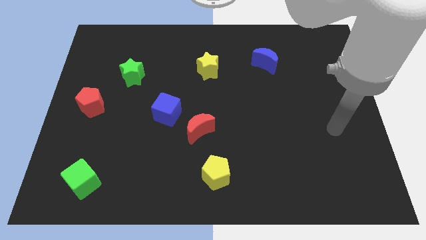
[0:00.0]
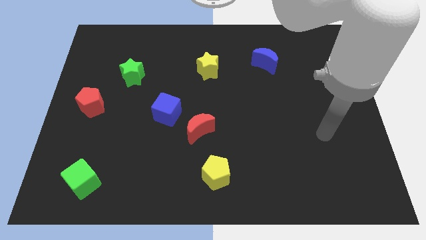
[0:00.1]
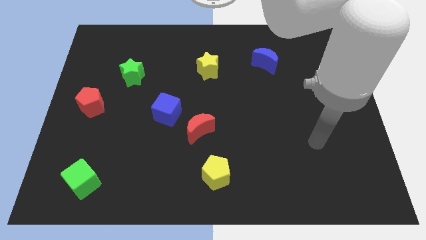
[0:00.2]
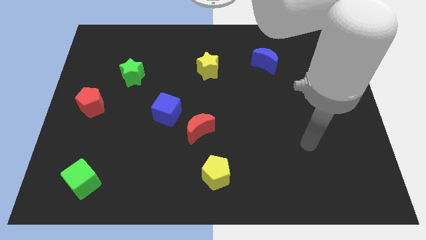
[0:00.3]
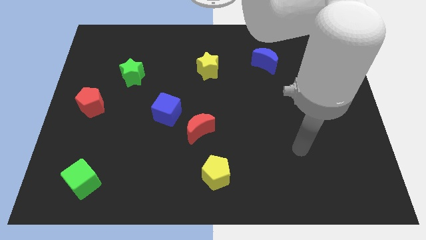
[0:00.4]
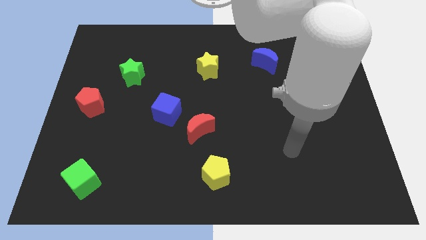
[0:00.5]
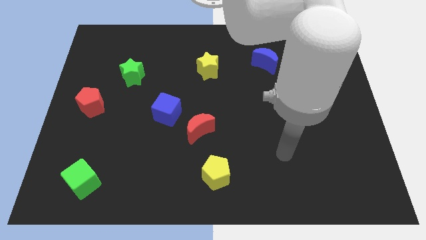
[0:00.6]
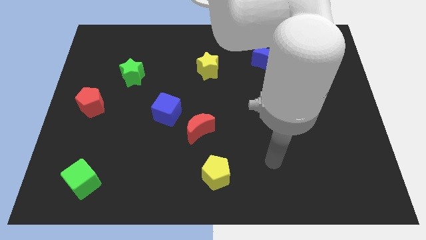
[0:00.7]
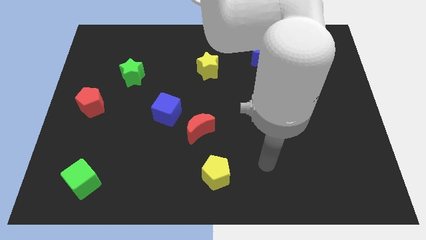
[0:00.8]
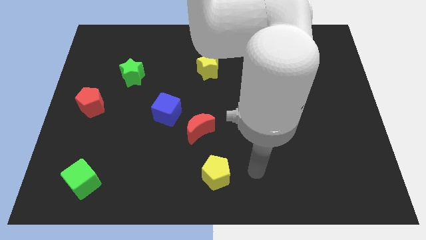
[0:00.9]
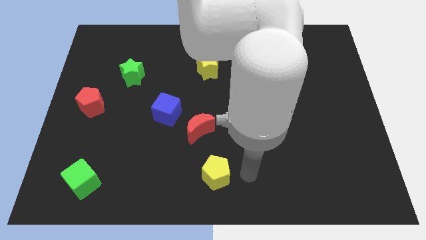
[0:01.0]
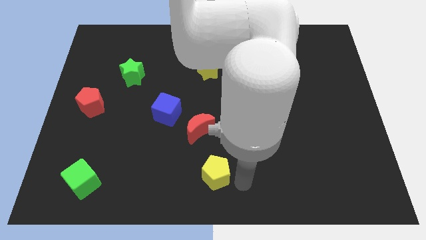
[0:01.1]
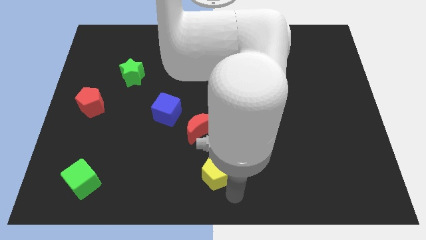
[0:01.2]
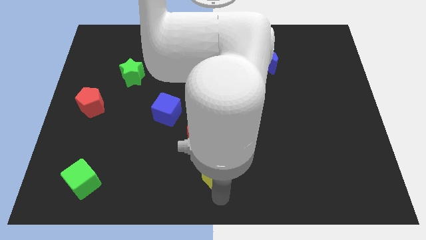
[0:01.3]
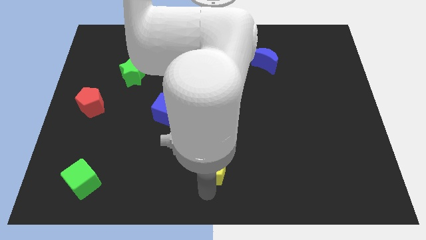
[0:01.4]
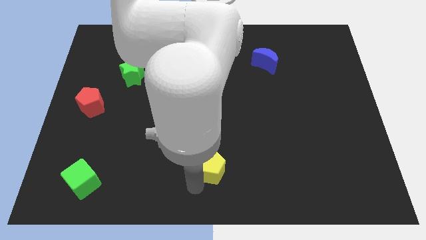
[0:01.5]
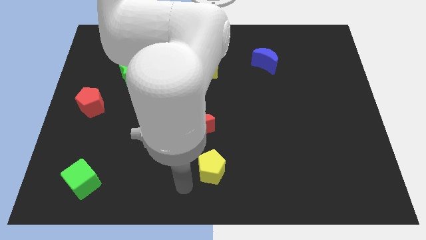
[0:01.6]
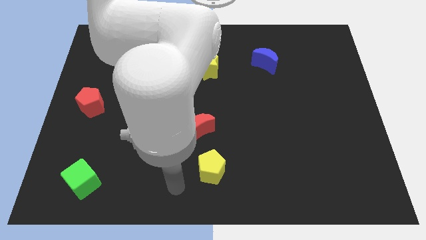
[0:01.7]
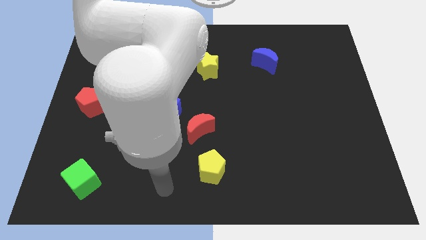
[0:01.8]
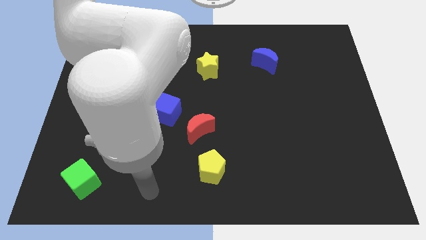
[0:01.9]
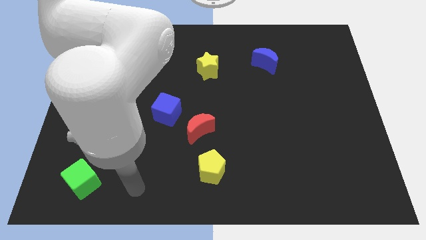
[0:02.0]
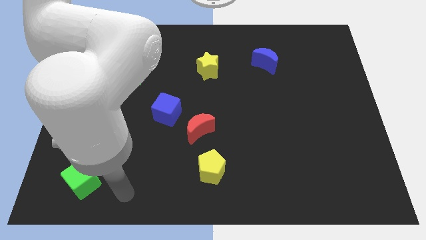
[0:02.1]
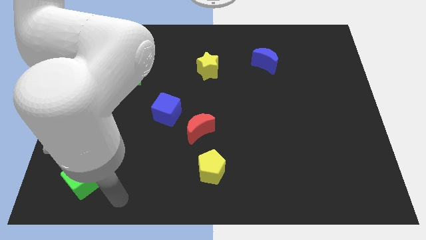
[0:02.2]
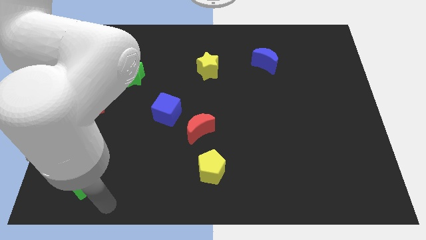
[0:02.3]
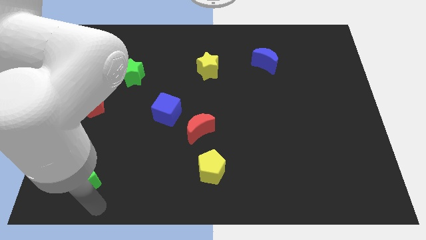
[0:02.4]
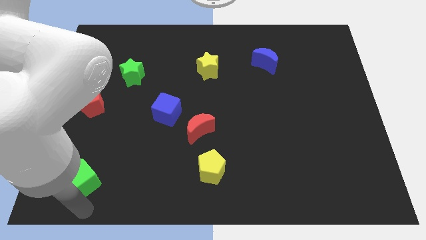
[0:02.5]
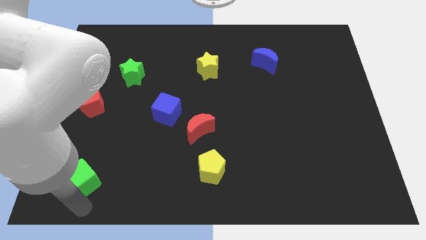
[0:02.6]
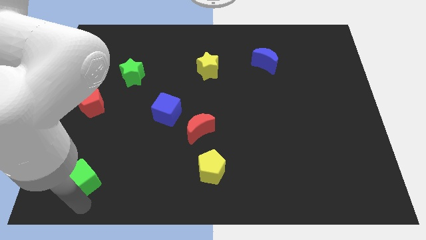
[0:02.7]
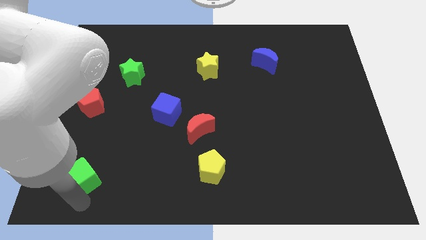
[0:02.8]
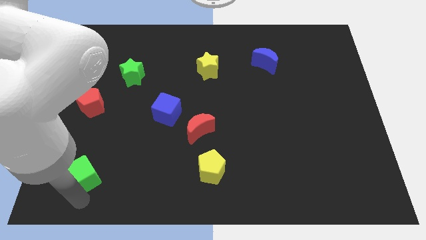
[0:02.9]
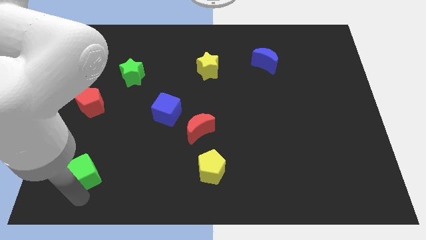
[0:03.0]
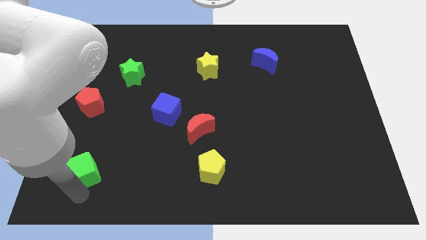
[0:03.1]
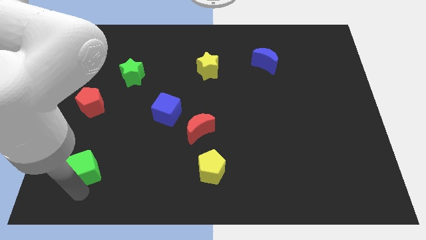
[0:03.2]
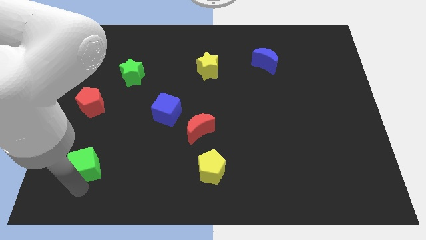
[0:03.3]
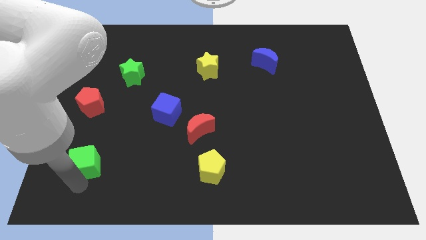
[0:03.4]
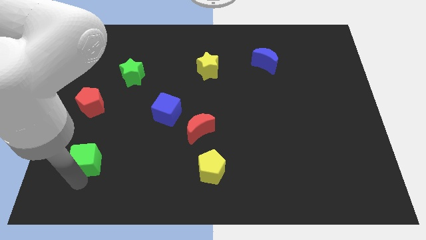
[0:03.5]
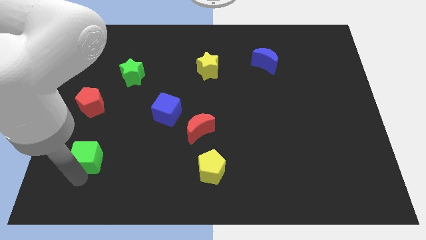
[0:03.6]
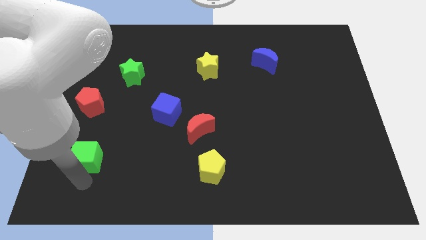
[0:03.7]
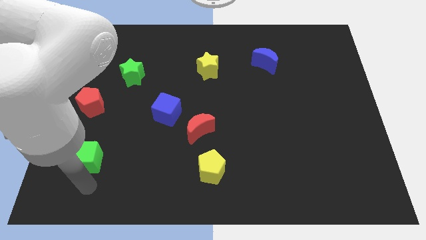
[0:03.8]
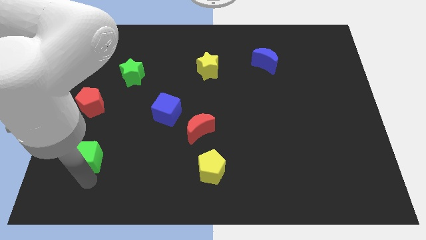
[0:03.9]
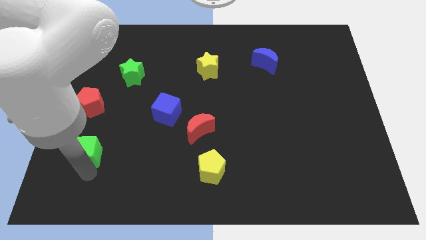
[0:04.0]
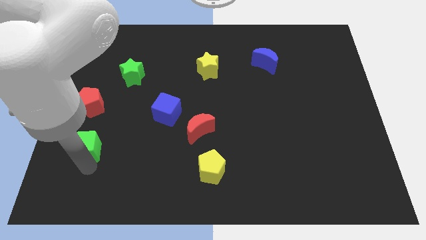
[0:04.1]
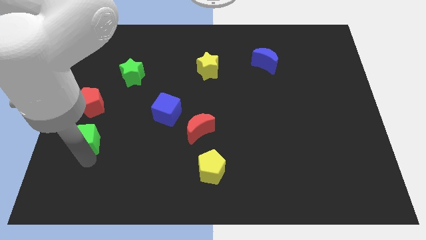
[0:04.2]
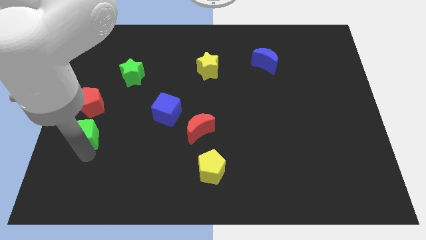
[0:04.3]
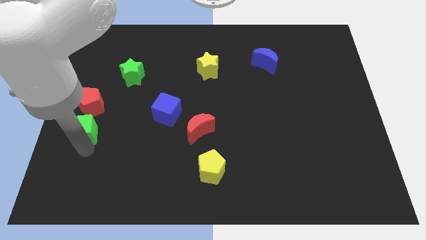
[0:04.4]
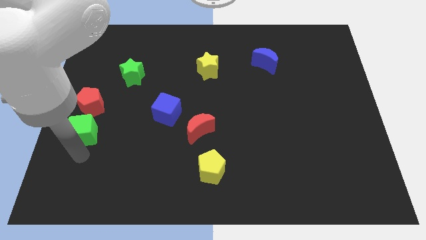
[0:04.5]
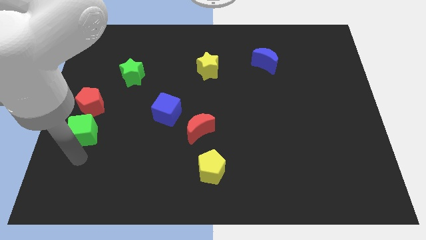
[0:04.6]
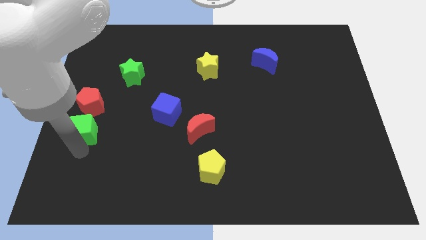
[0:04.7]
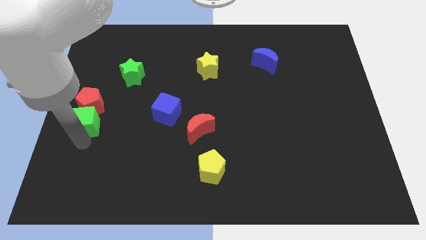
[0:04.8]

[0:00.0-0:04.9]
put the green cube next to the red pentagon

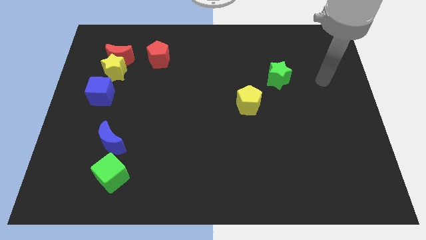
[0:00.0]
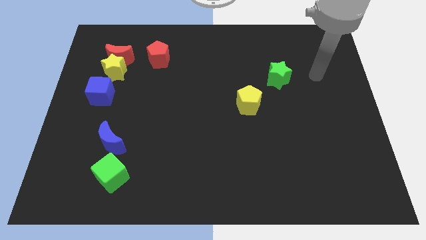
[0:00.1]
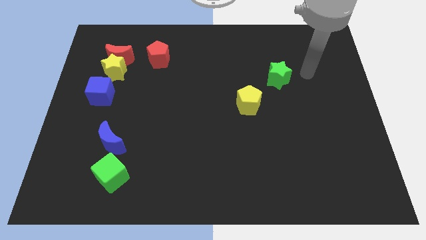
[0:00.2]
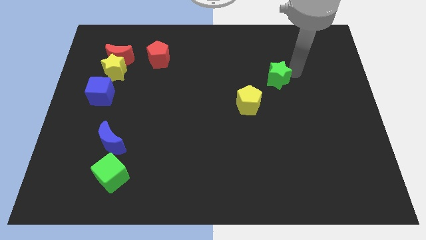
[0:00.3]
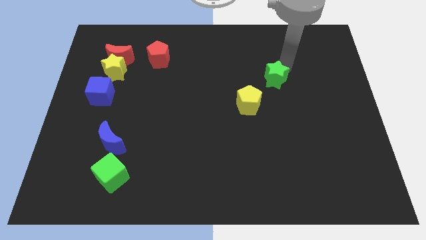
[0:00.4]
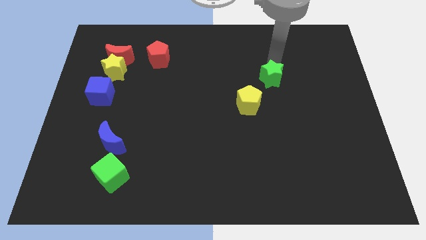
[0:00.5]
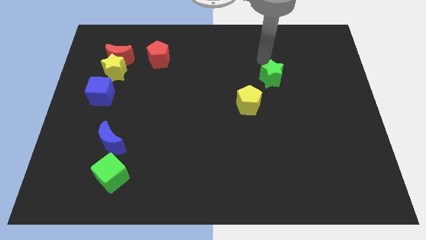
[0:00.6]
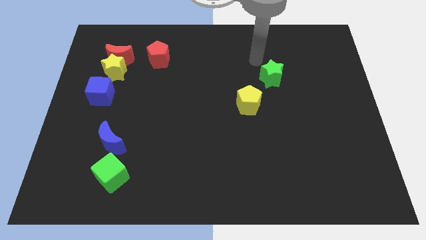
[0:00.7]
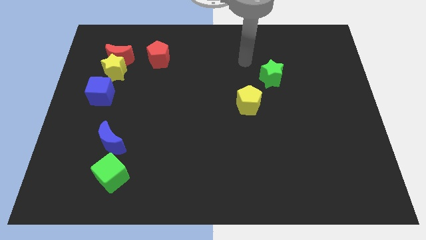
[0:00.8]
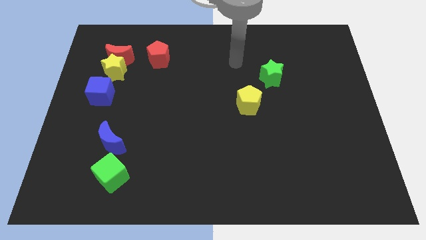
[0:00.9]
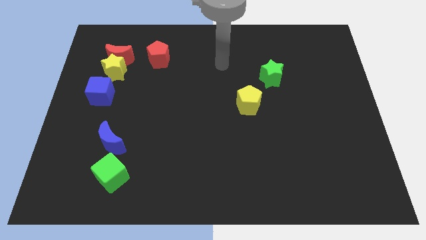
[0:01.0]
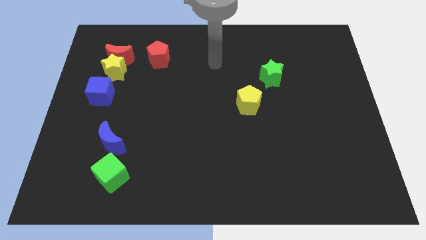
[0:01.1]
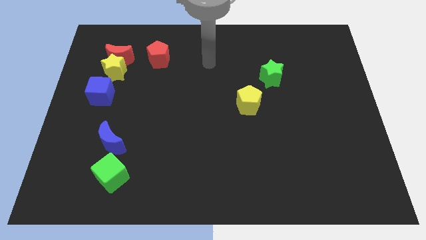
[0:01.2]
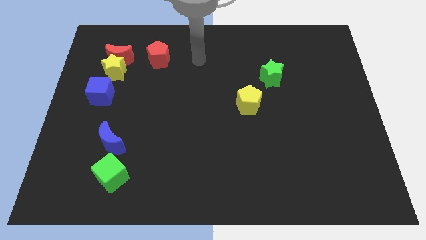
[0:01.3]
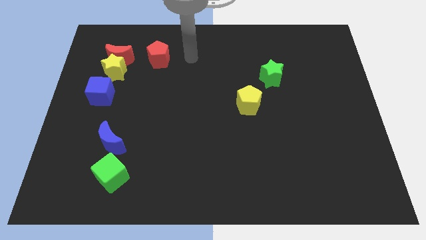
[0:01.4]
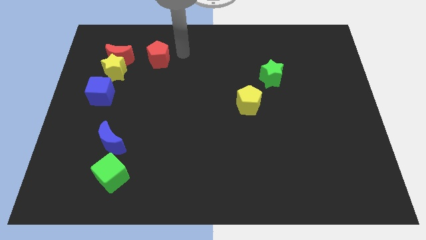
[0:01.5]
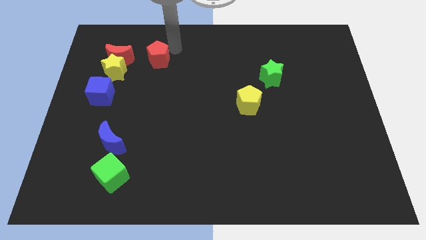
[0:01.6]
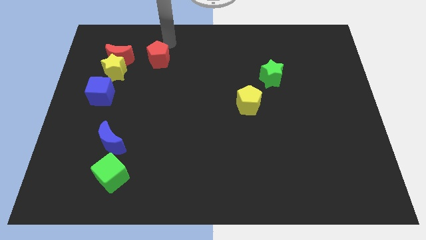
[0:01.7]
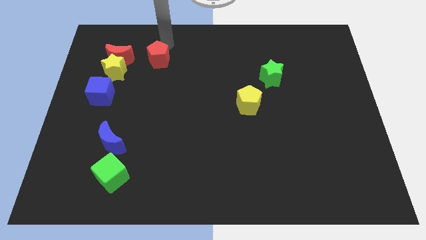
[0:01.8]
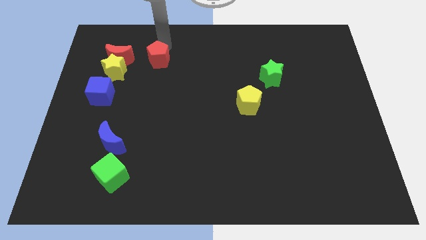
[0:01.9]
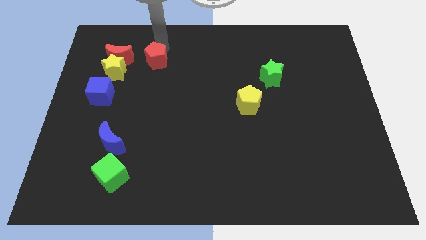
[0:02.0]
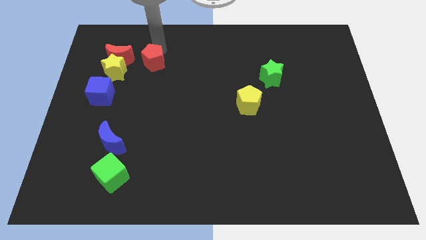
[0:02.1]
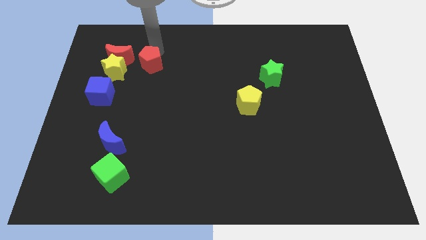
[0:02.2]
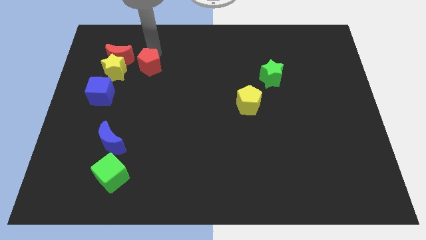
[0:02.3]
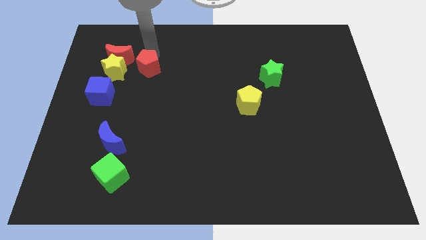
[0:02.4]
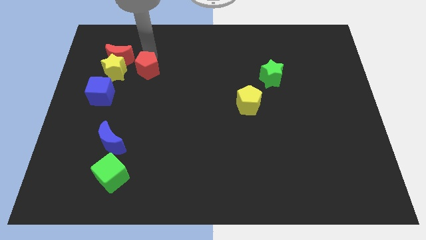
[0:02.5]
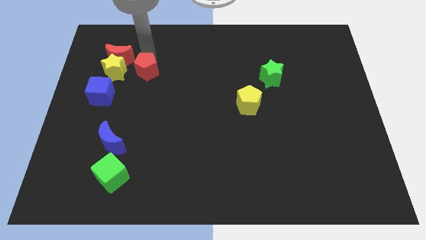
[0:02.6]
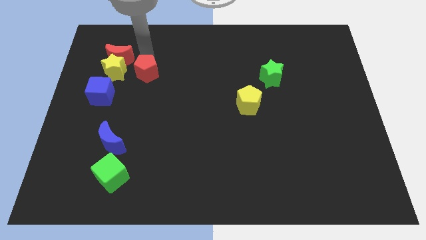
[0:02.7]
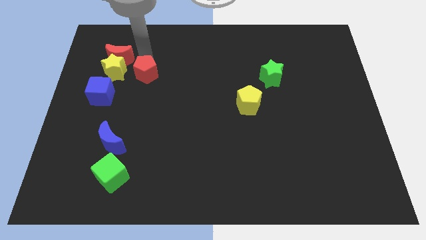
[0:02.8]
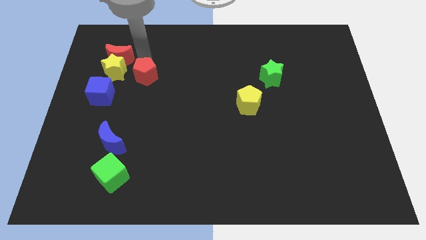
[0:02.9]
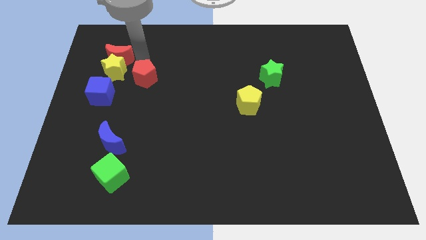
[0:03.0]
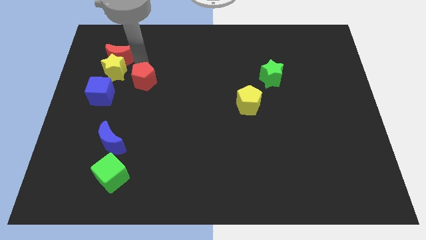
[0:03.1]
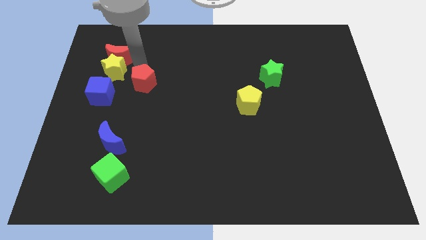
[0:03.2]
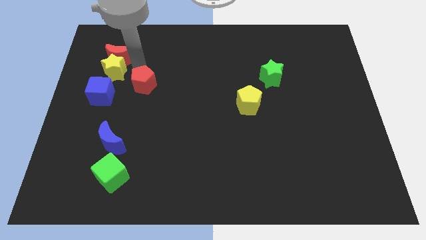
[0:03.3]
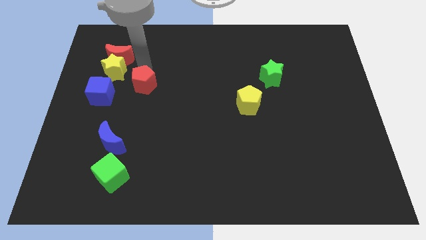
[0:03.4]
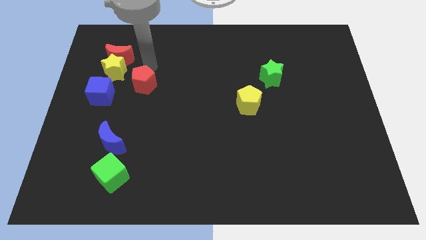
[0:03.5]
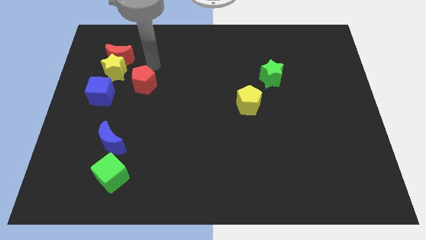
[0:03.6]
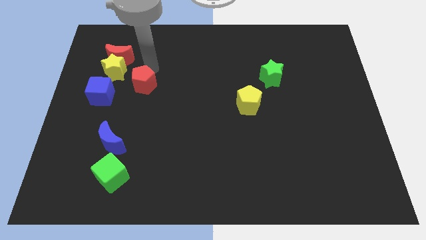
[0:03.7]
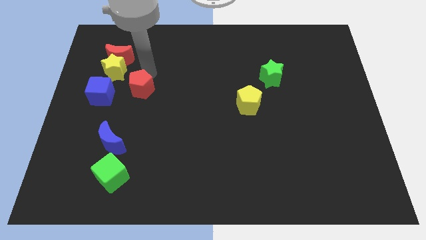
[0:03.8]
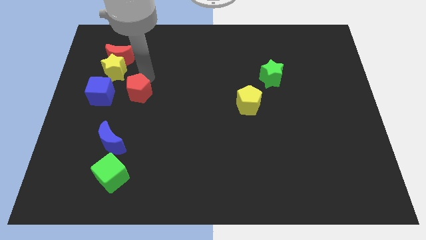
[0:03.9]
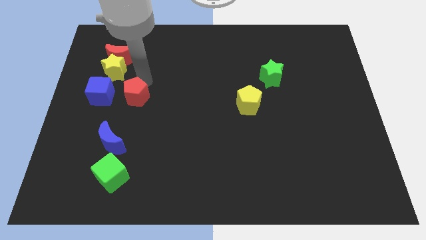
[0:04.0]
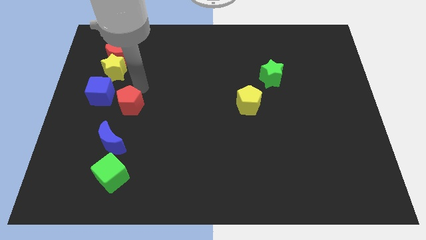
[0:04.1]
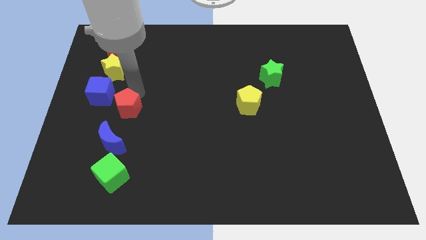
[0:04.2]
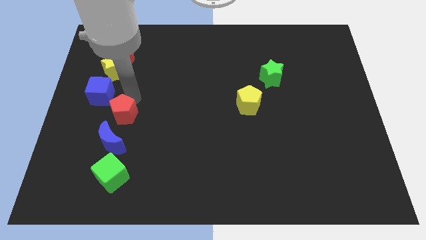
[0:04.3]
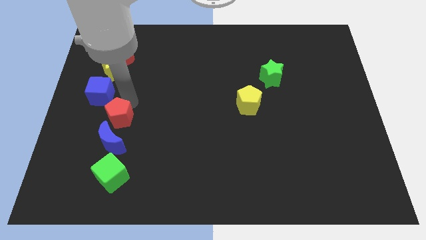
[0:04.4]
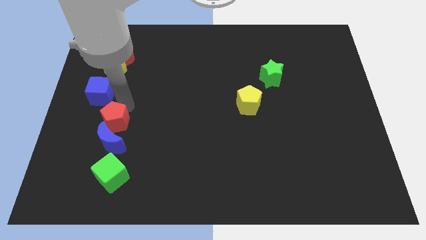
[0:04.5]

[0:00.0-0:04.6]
slide the red pentagon to the blue moon
